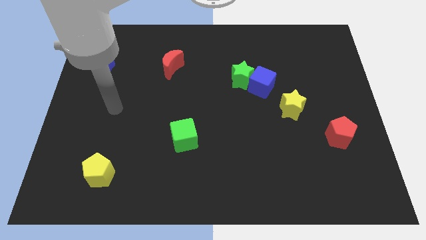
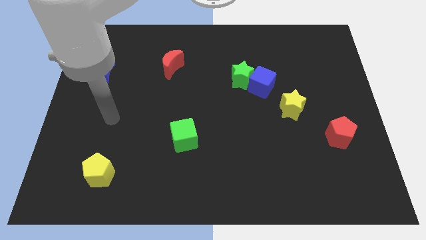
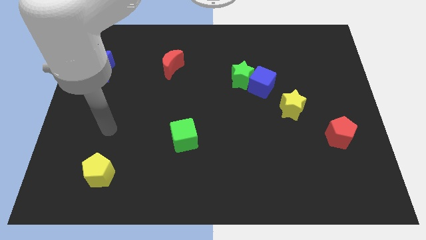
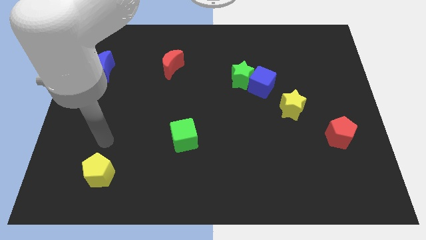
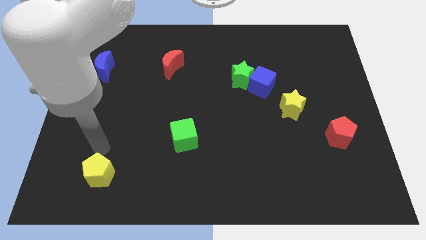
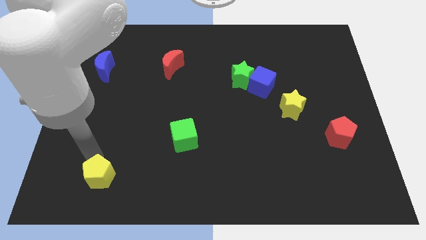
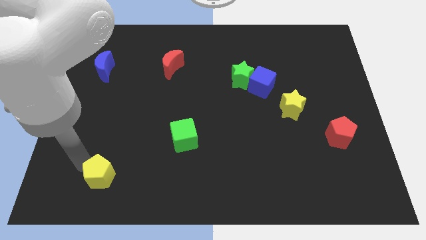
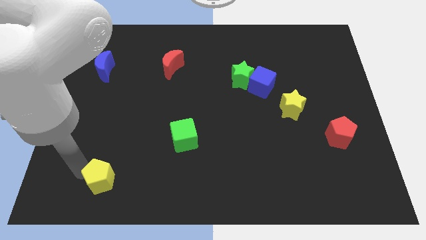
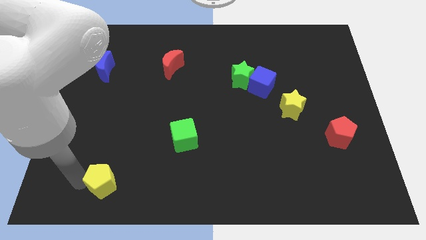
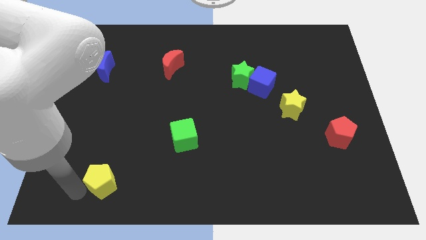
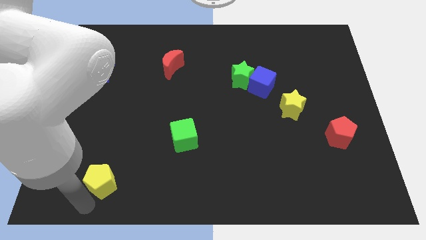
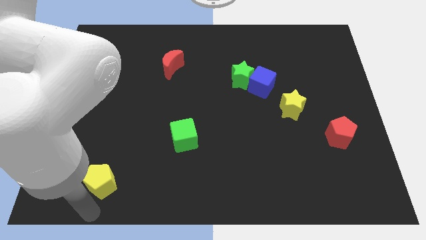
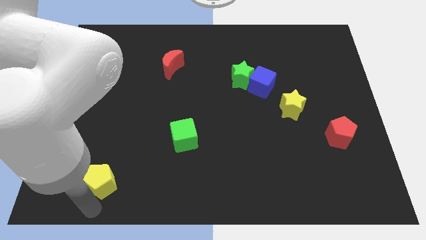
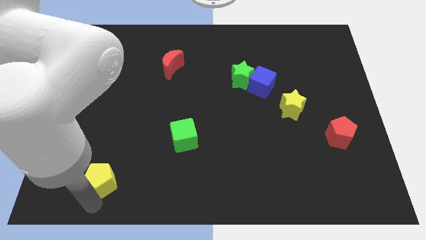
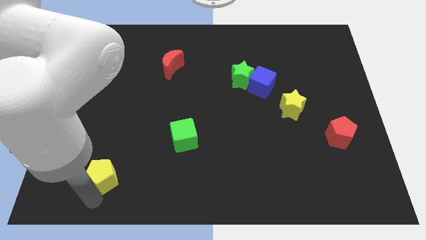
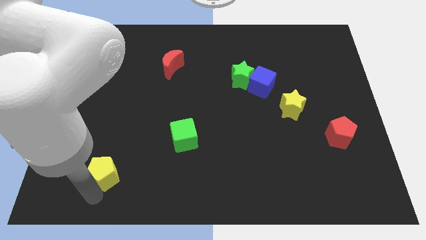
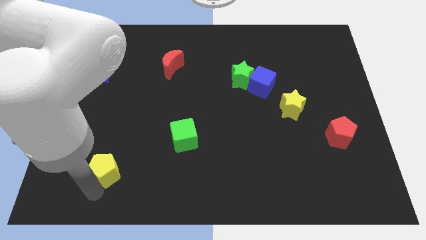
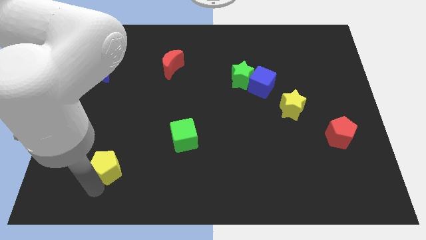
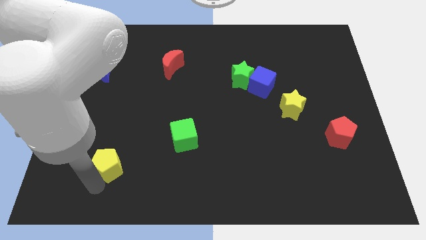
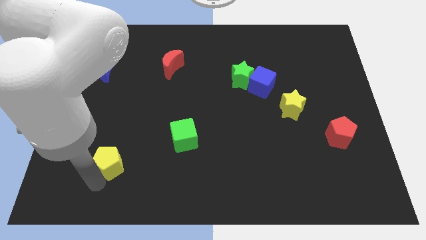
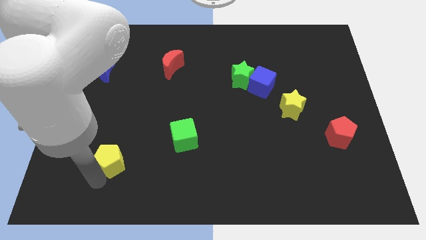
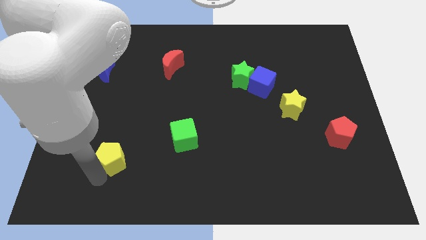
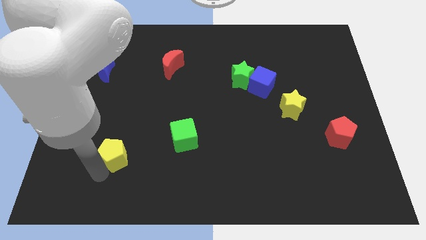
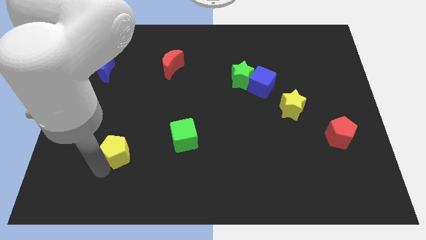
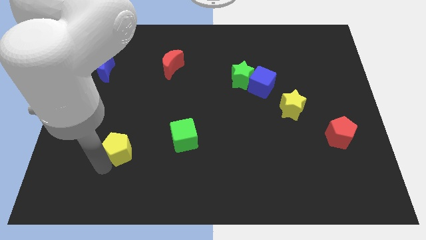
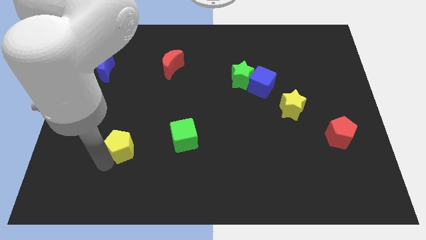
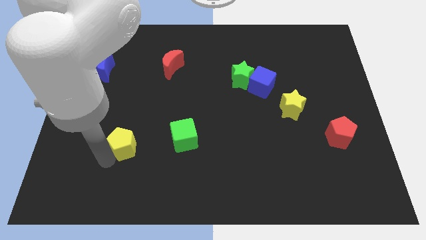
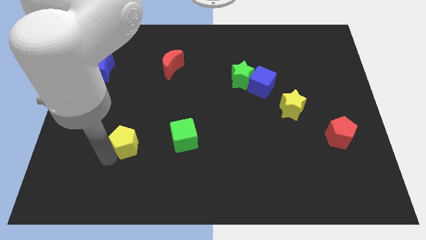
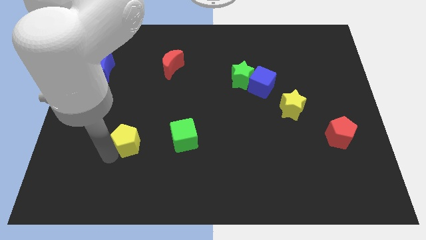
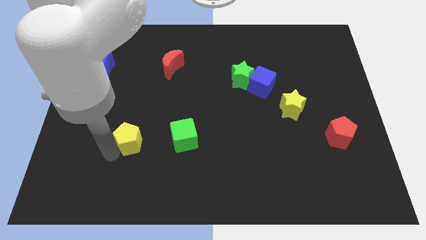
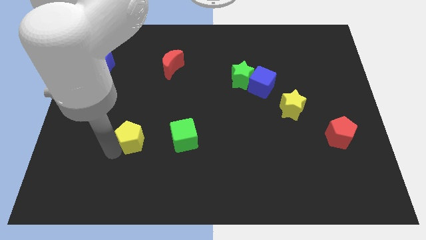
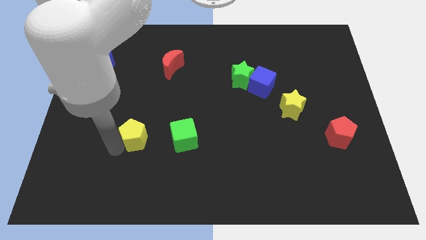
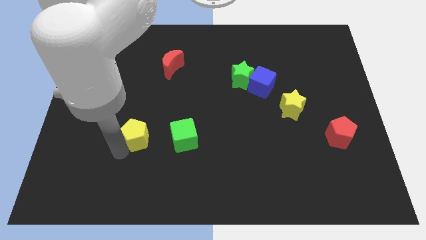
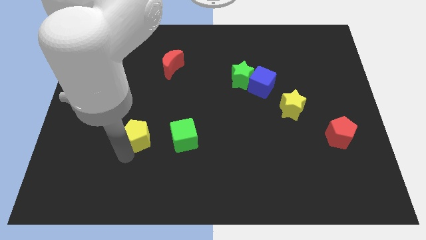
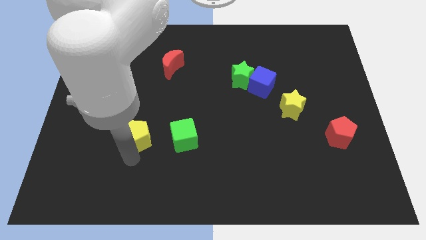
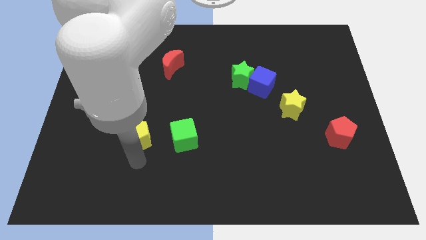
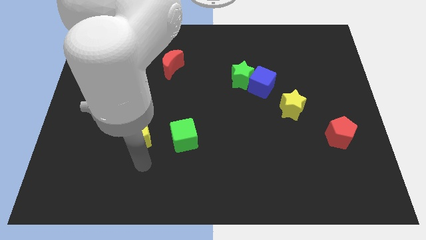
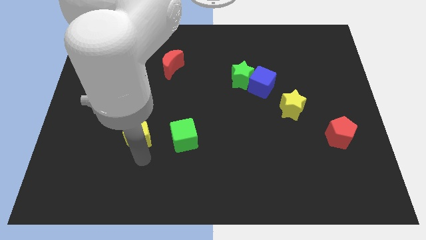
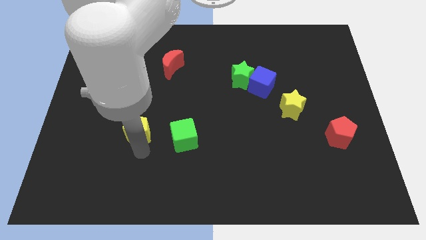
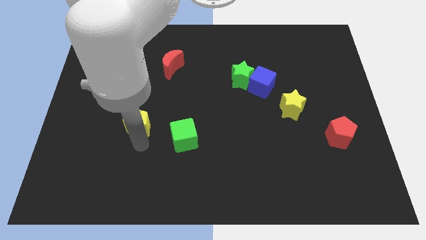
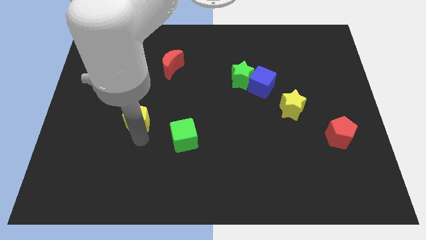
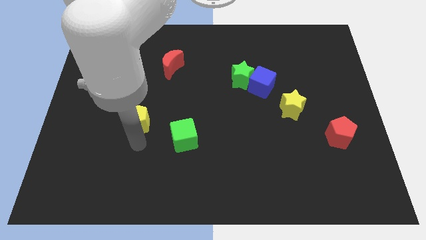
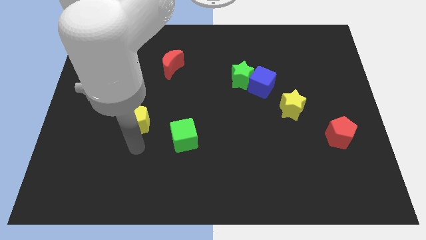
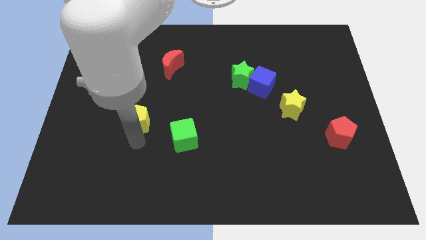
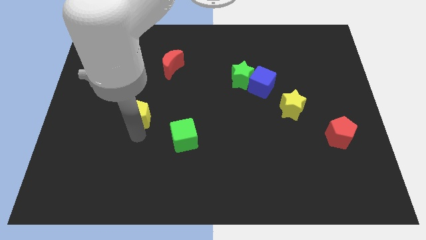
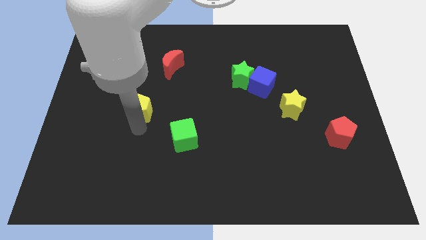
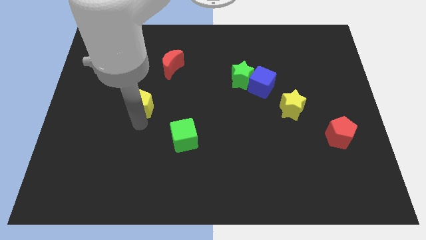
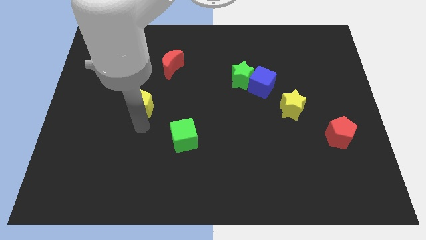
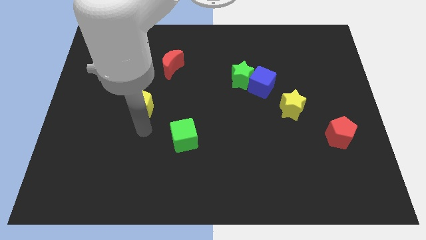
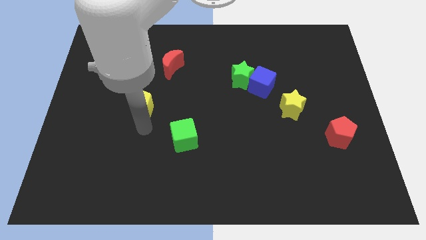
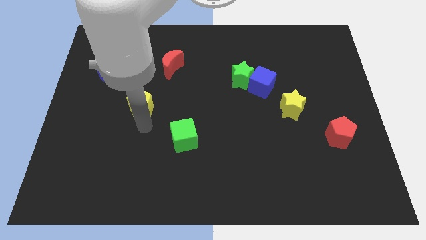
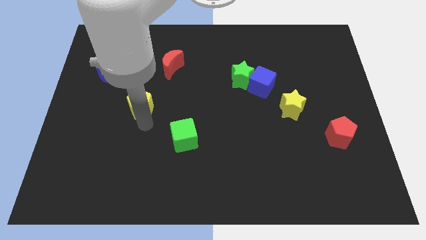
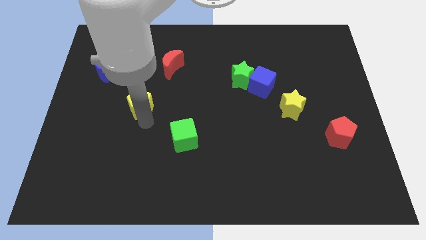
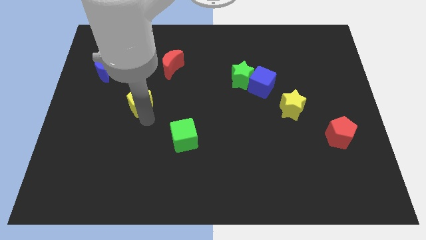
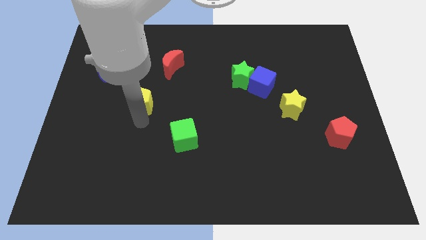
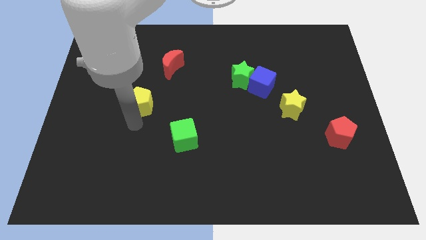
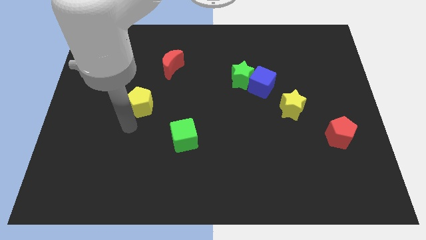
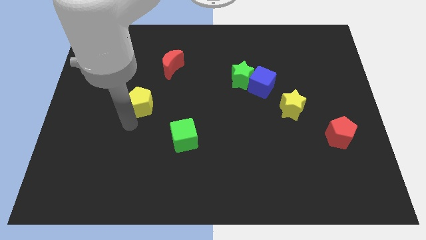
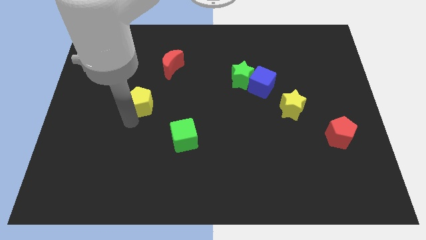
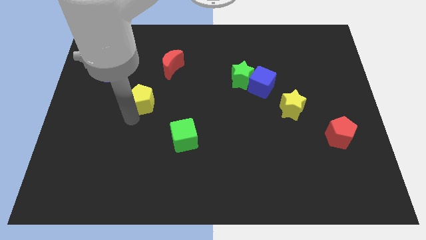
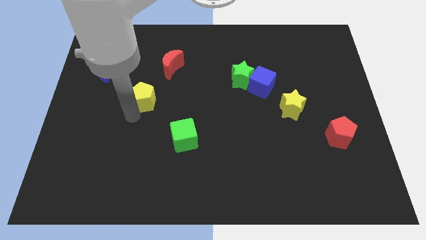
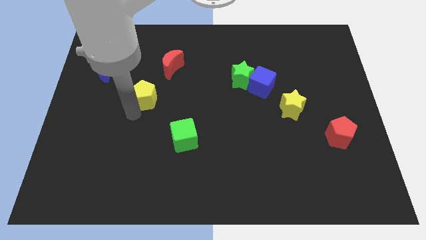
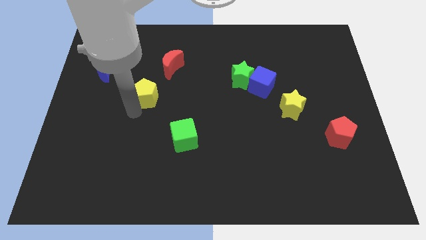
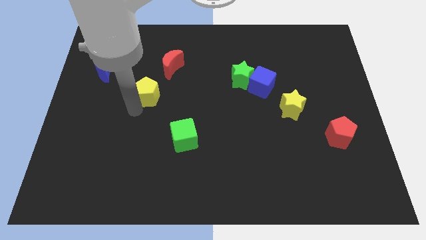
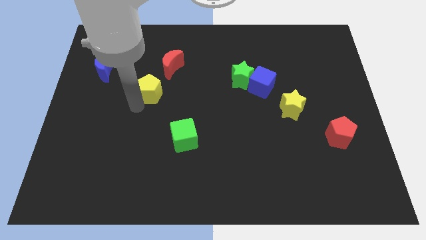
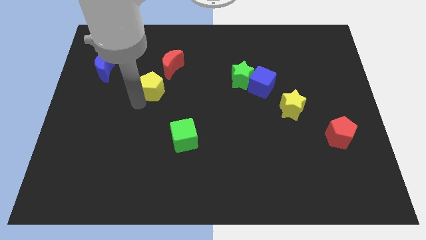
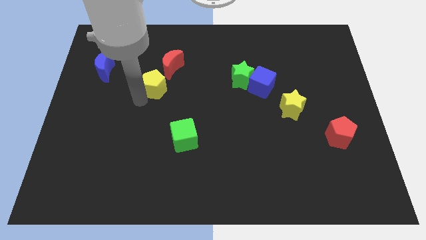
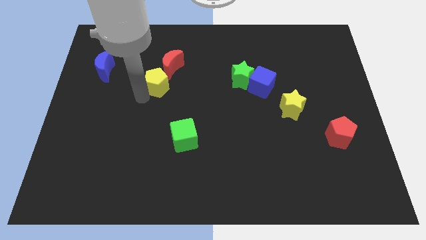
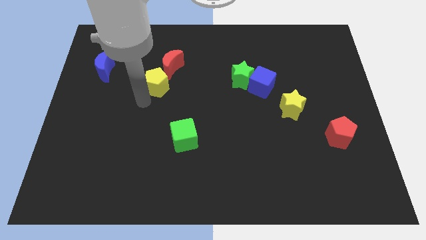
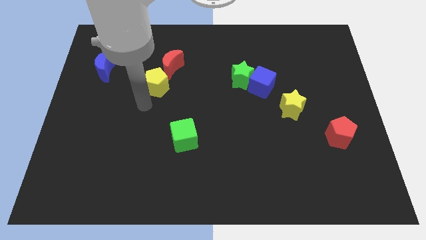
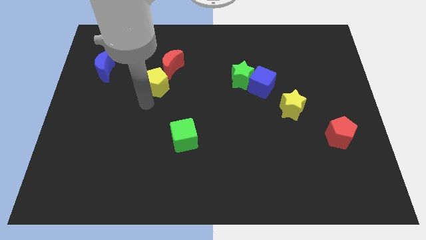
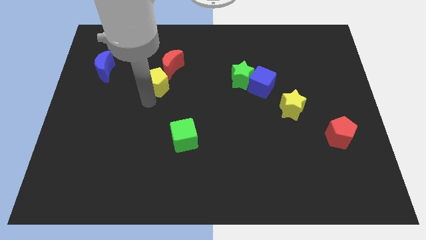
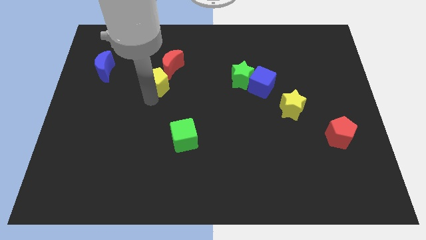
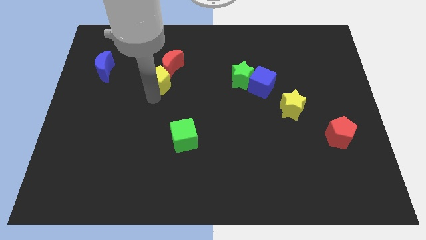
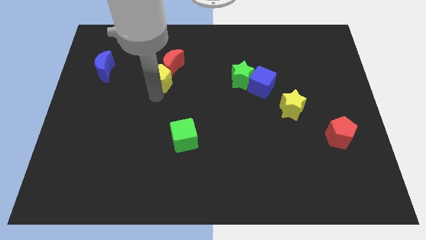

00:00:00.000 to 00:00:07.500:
move the yellow pentagon close to the red moon
